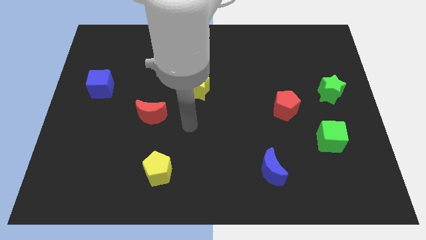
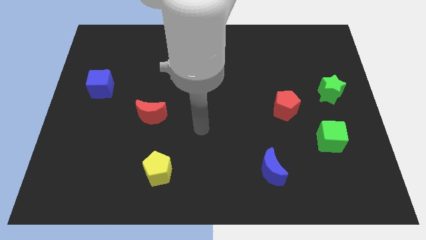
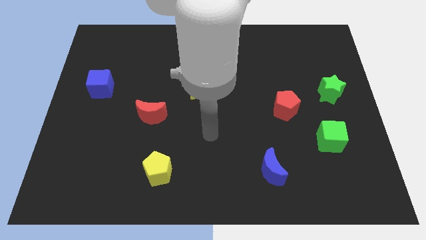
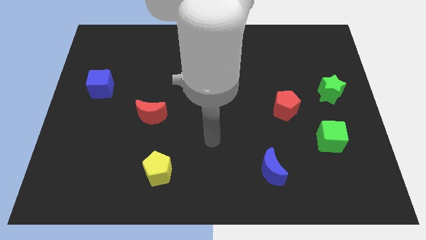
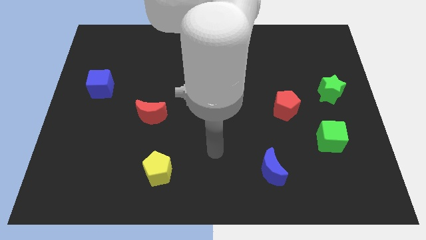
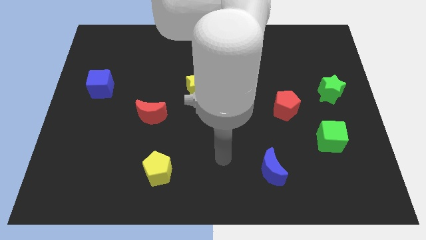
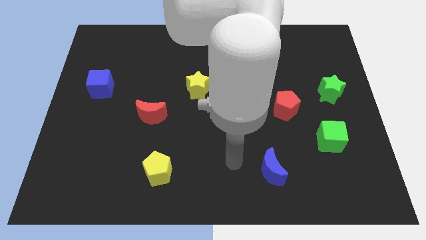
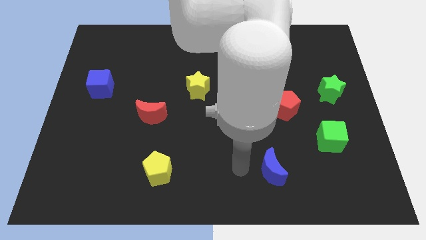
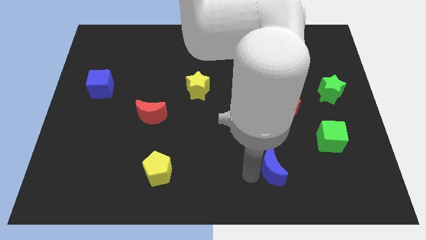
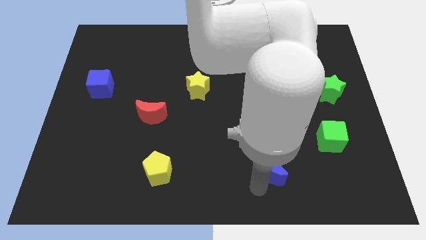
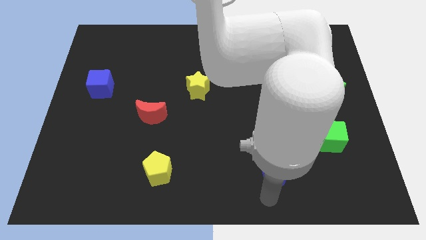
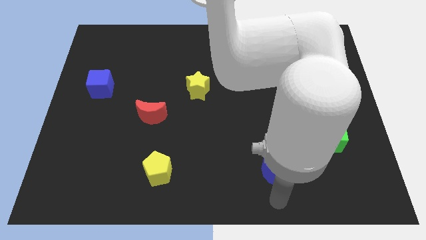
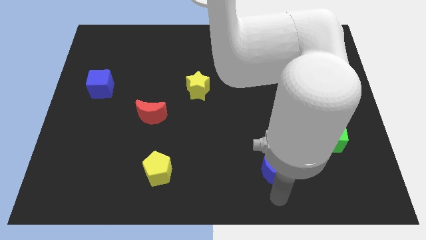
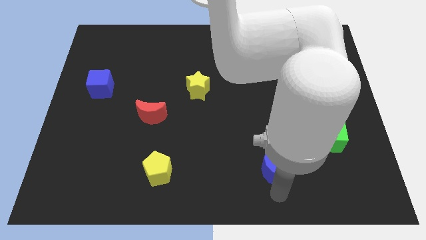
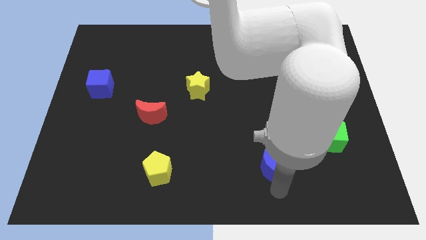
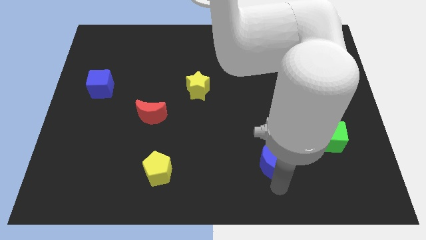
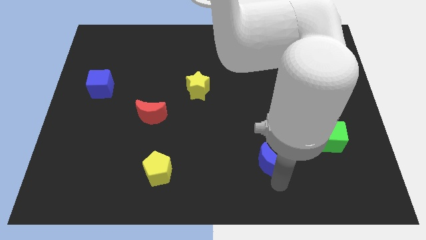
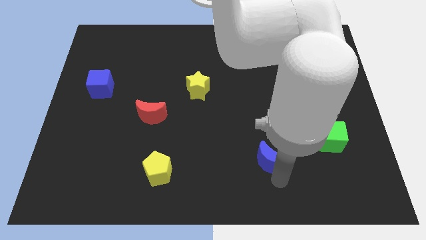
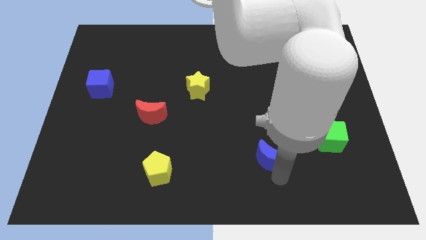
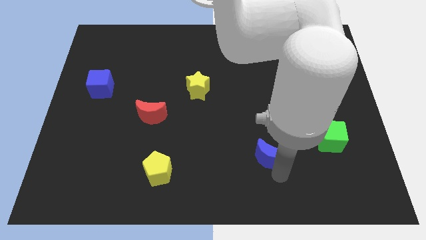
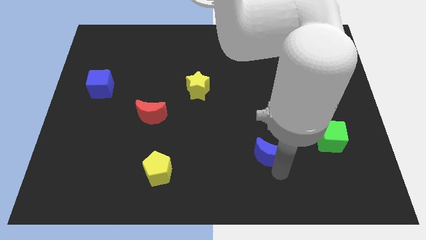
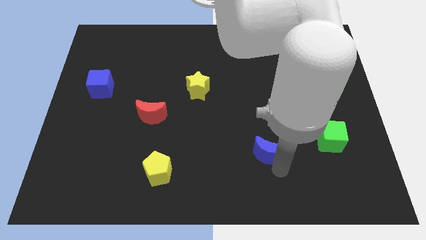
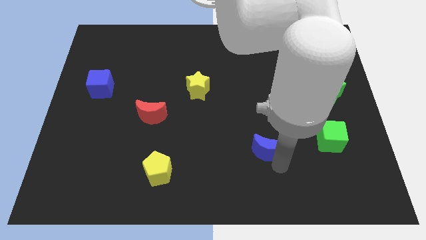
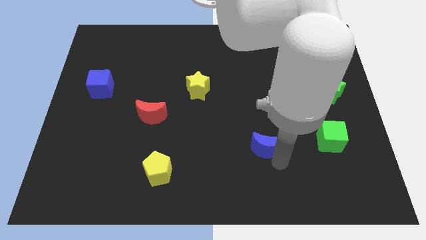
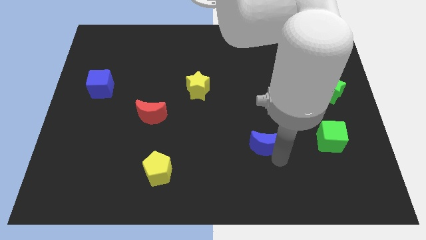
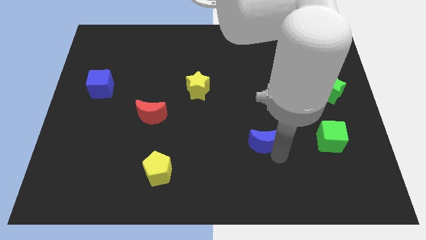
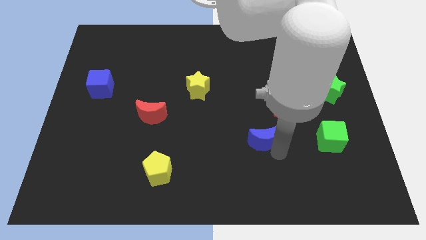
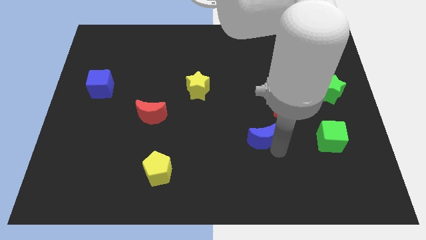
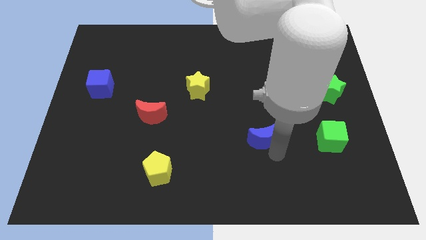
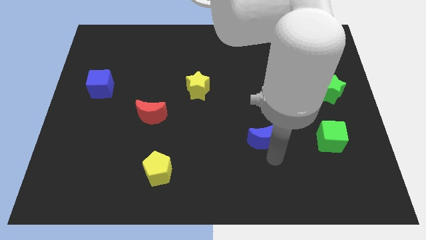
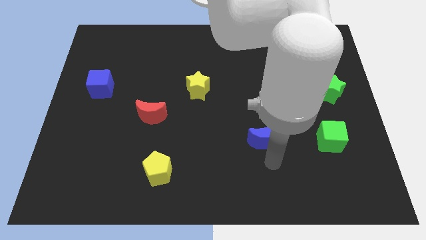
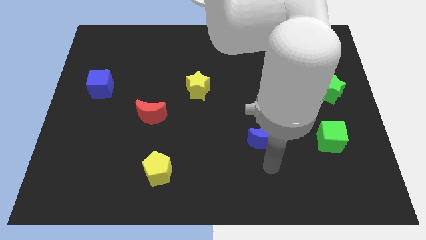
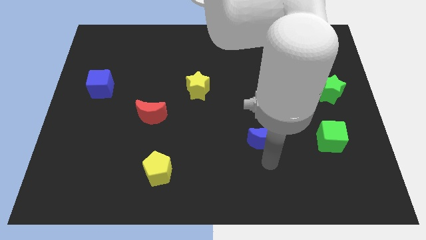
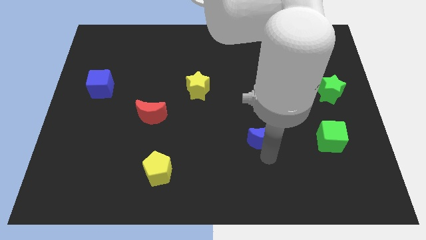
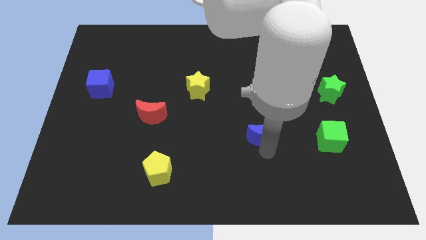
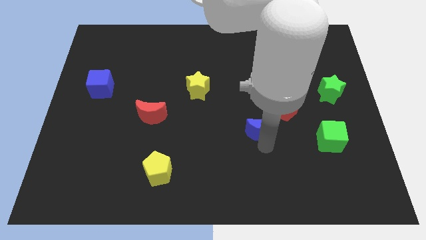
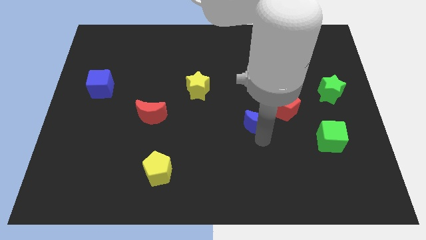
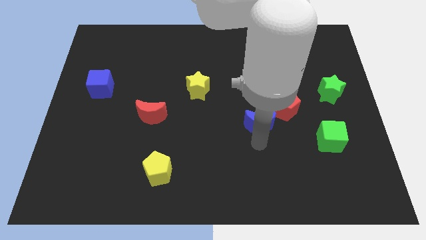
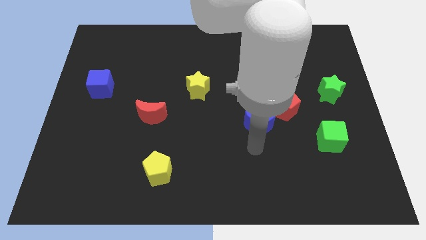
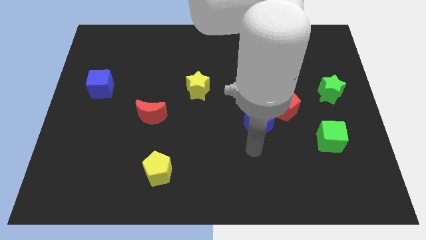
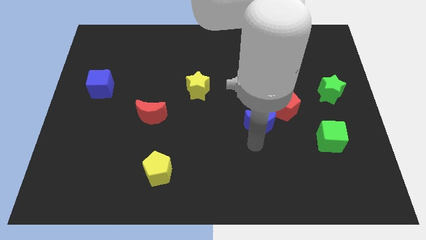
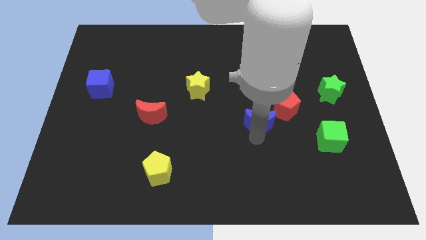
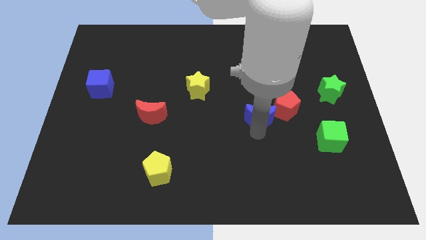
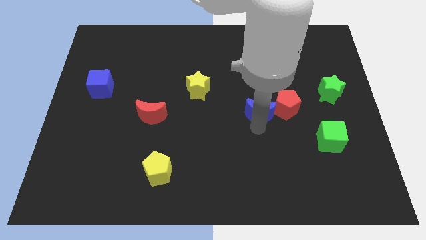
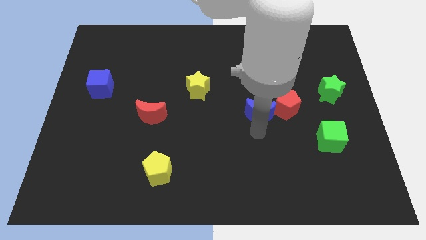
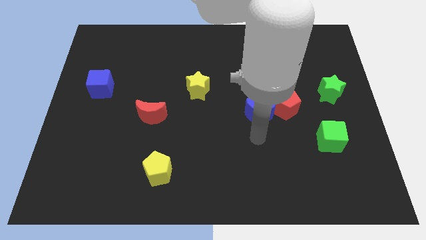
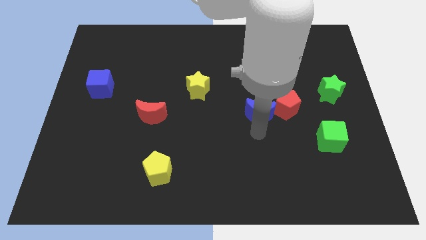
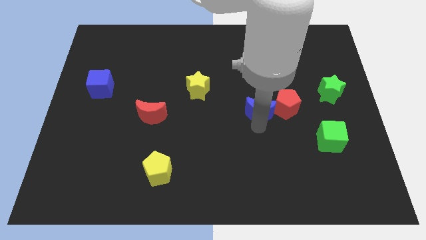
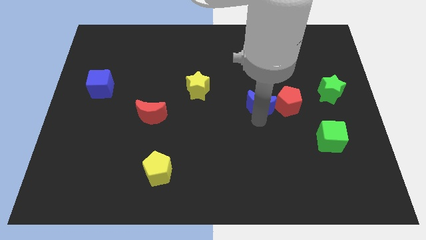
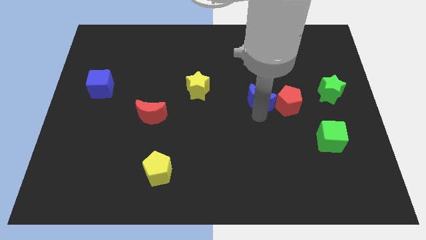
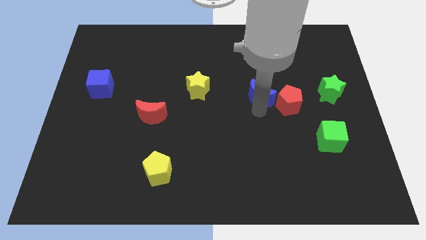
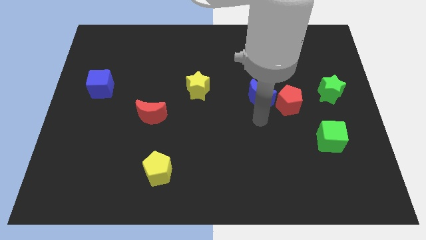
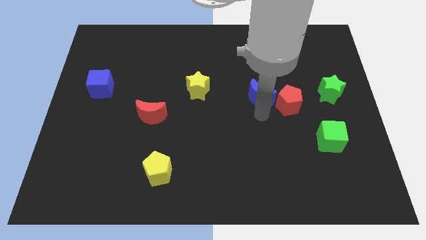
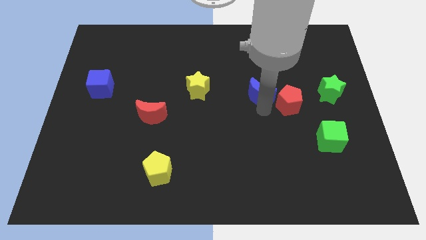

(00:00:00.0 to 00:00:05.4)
push the blue moon up

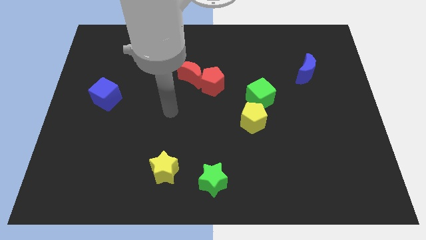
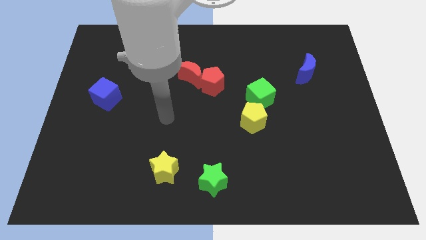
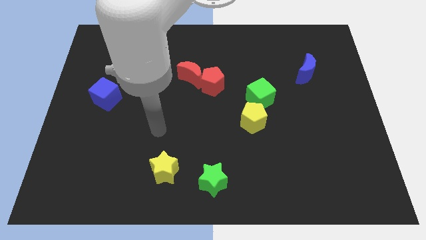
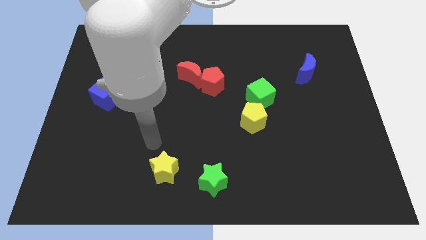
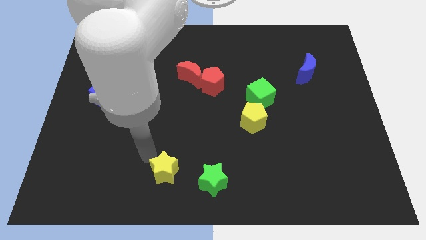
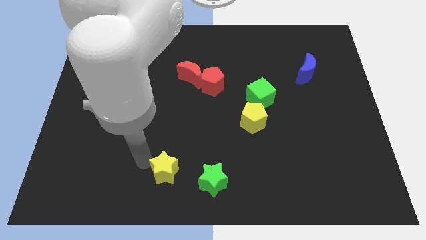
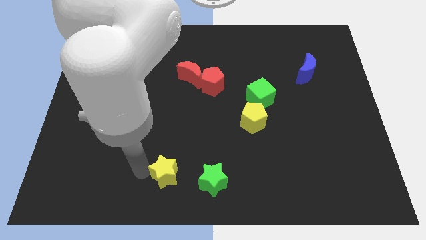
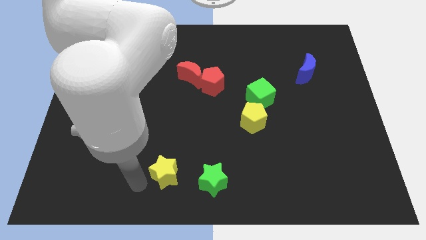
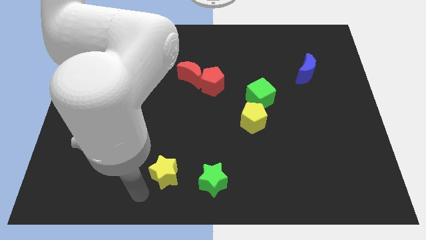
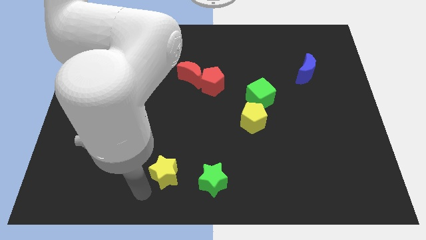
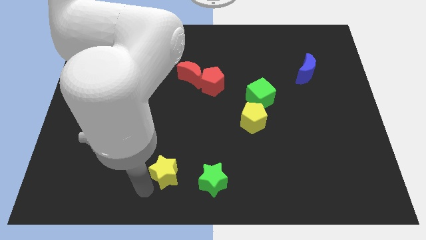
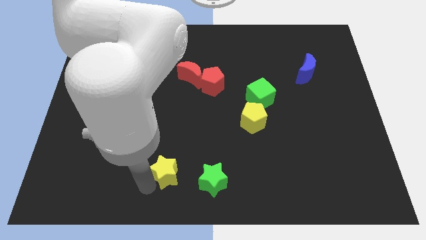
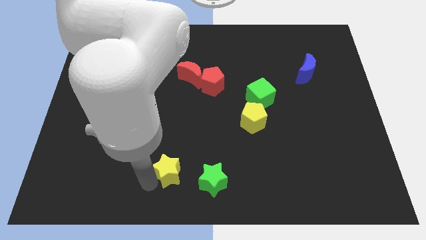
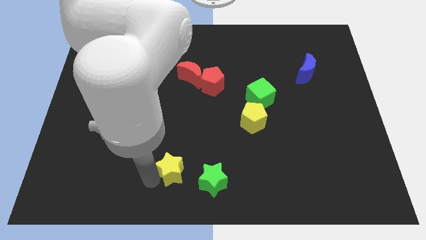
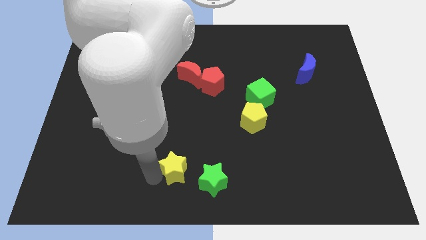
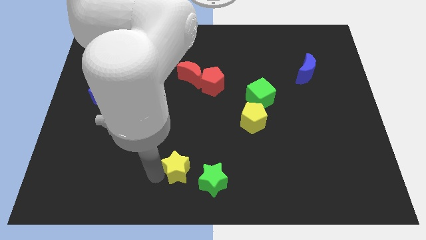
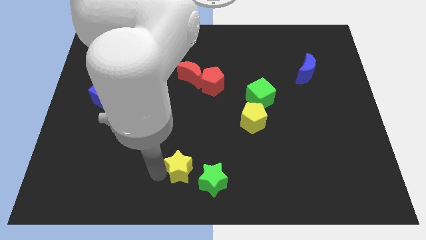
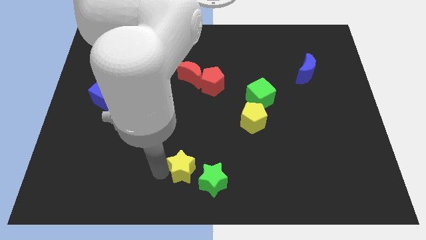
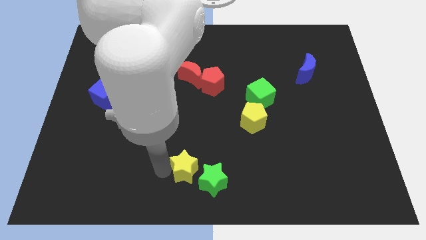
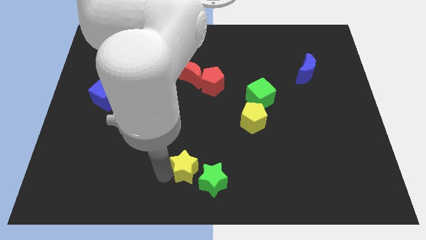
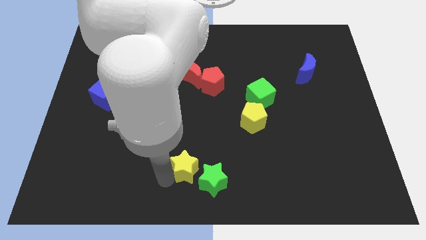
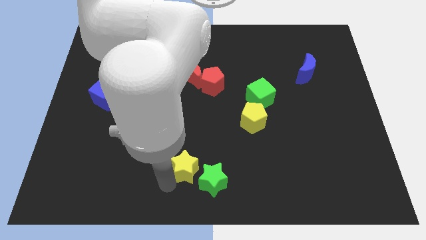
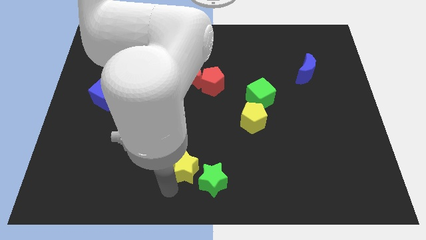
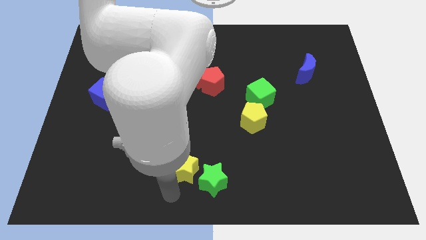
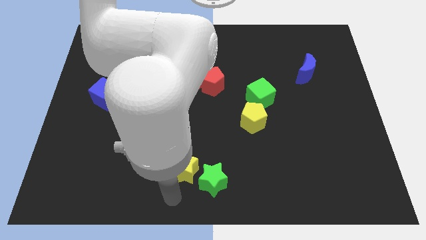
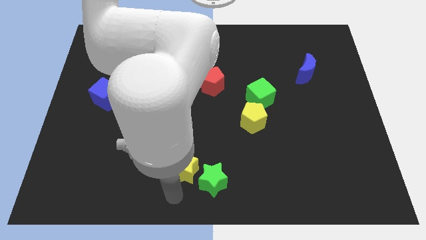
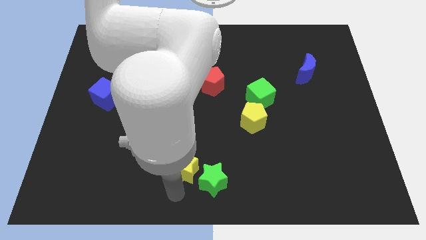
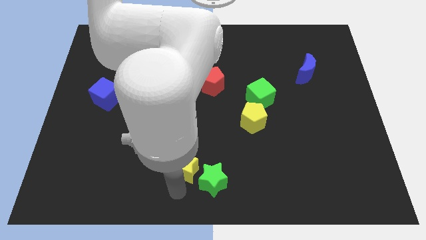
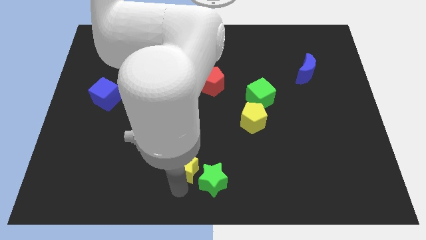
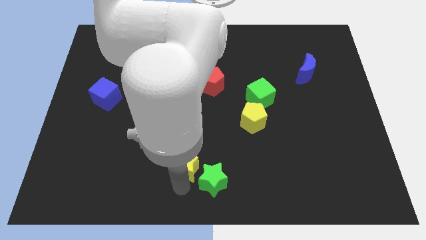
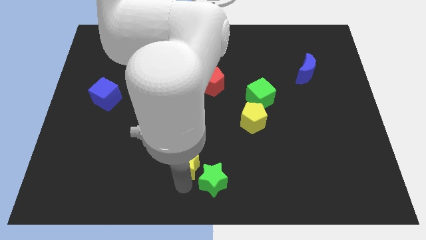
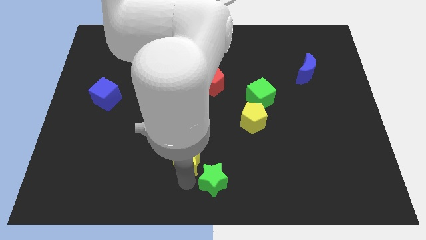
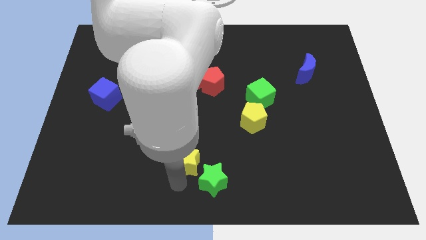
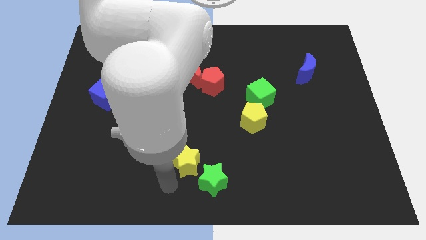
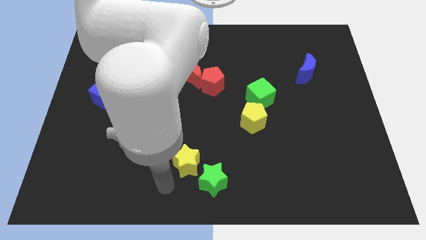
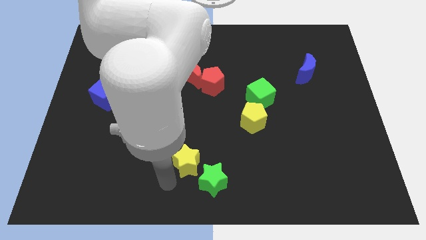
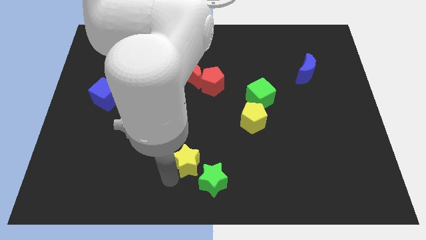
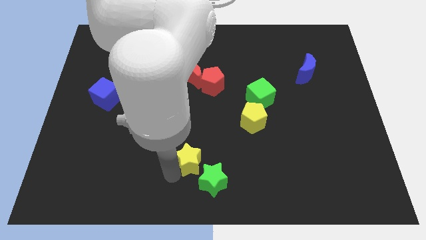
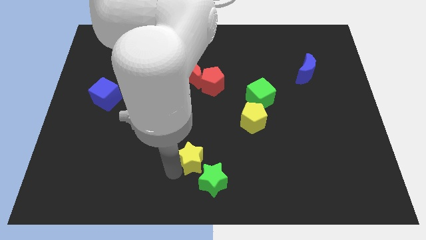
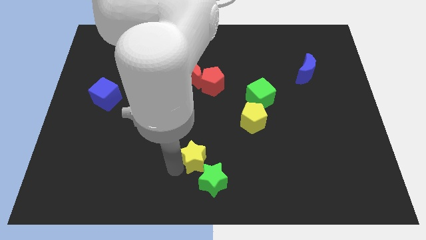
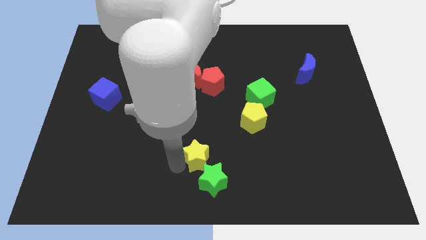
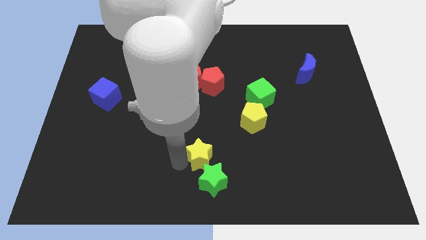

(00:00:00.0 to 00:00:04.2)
slightly push the yellow star upwards and to the right
